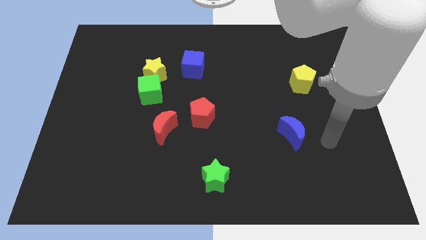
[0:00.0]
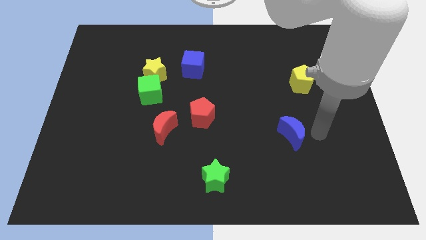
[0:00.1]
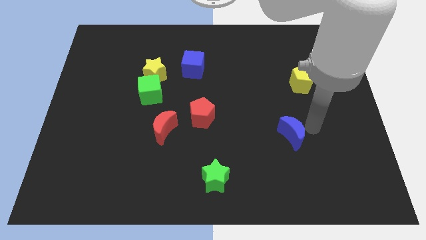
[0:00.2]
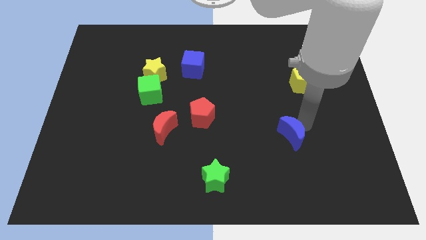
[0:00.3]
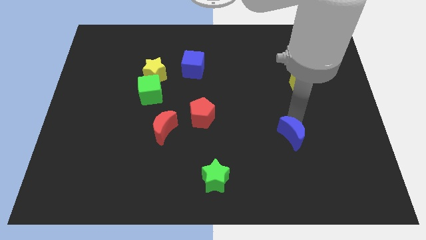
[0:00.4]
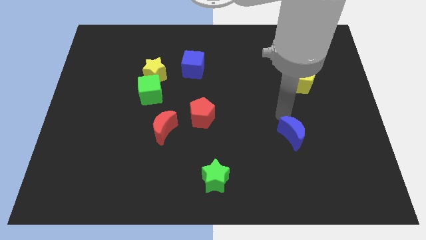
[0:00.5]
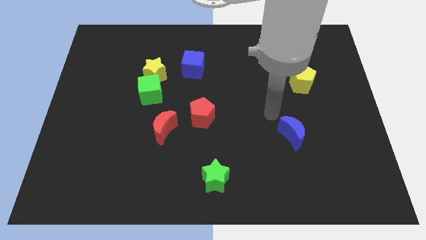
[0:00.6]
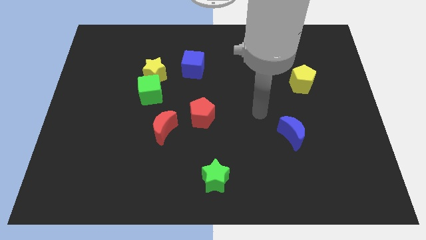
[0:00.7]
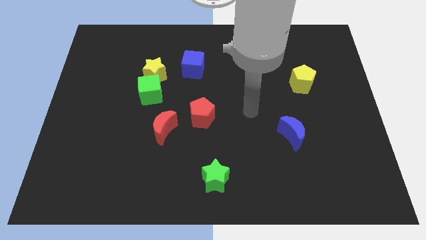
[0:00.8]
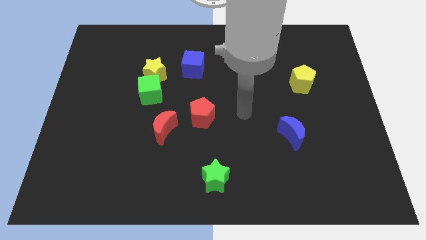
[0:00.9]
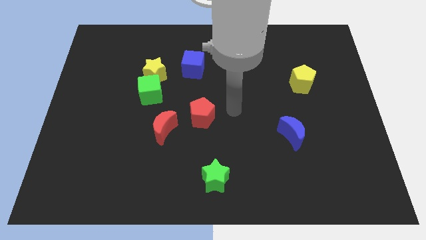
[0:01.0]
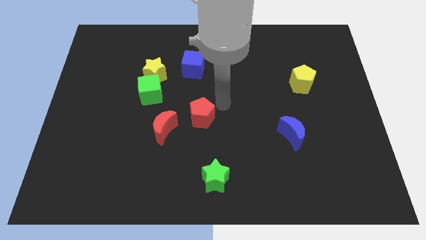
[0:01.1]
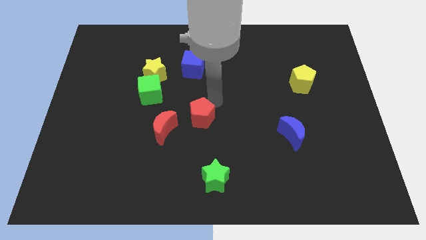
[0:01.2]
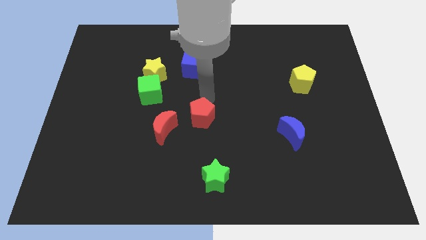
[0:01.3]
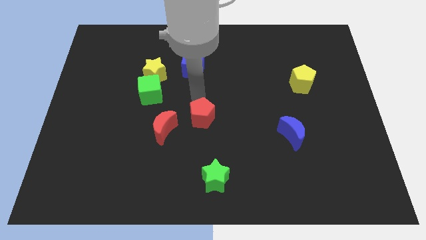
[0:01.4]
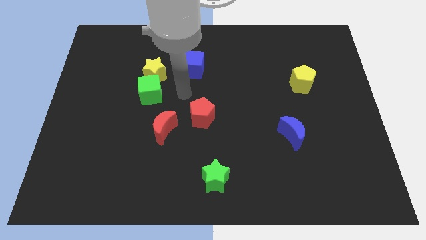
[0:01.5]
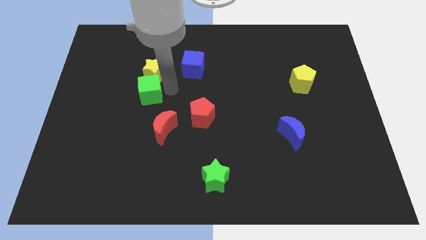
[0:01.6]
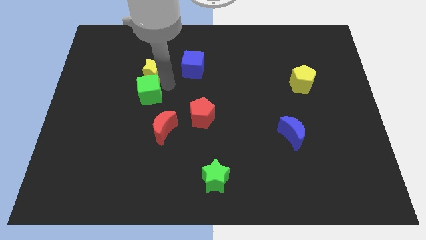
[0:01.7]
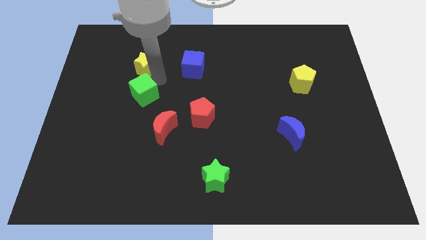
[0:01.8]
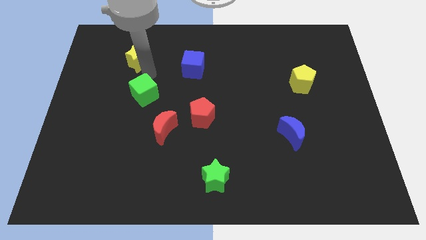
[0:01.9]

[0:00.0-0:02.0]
separate the green cube from the yellow star

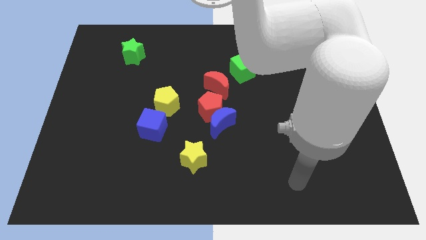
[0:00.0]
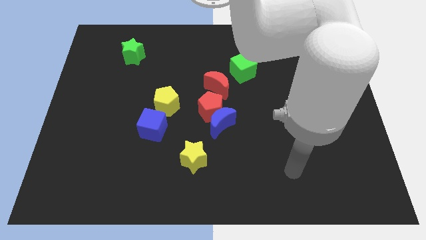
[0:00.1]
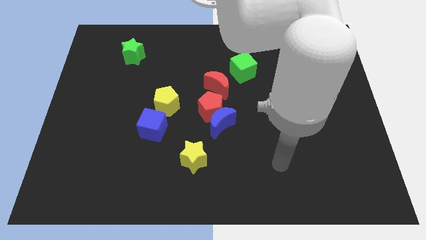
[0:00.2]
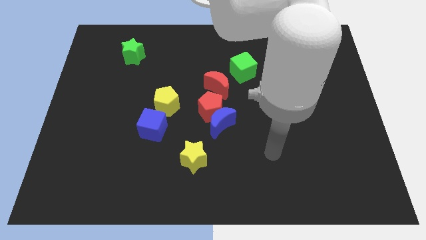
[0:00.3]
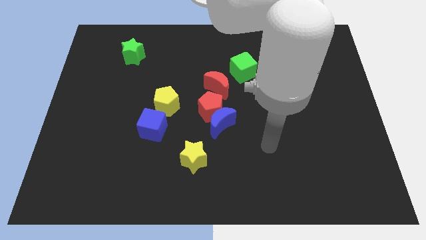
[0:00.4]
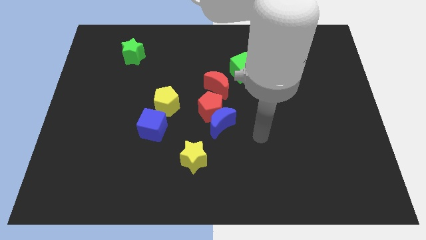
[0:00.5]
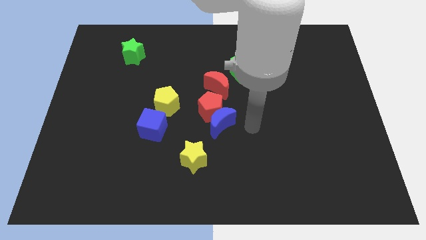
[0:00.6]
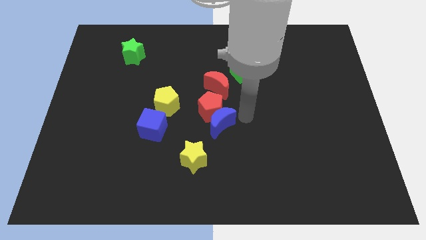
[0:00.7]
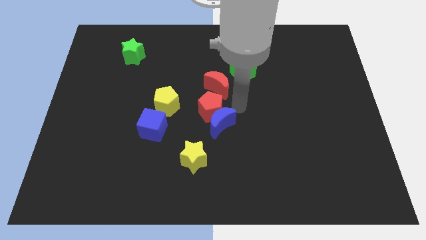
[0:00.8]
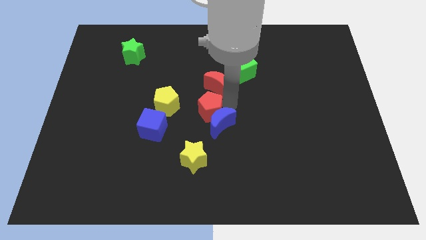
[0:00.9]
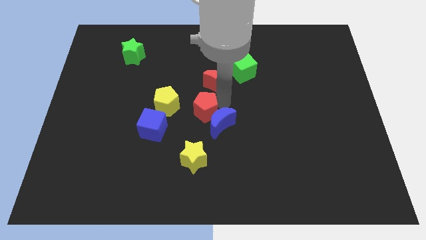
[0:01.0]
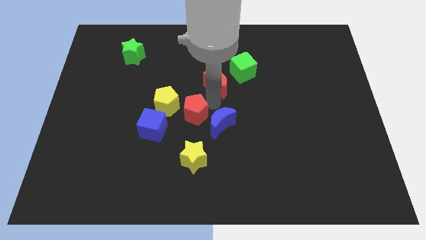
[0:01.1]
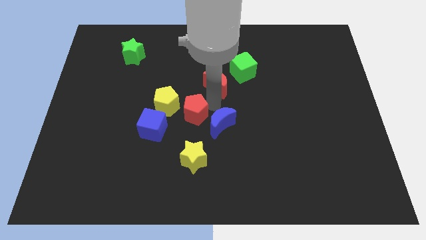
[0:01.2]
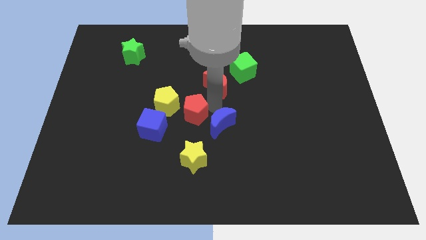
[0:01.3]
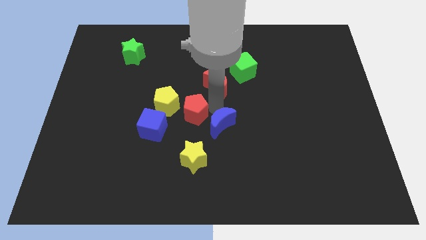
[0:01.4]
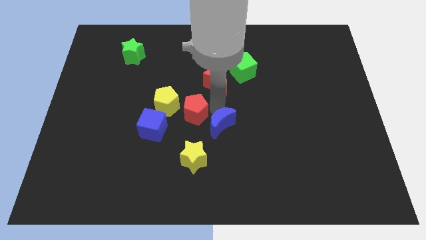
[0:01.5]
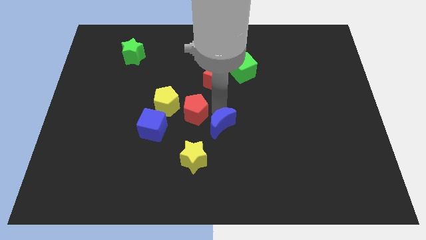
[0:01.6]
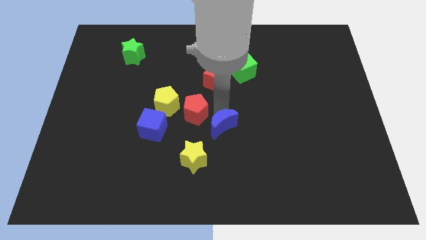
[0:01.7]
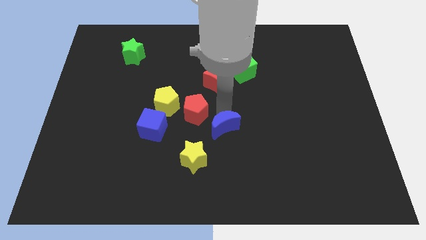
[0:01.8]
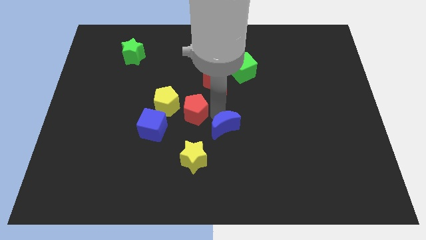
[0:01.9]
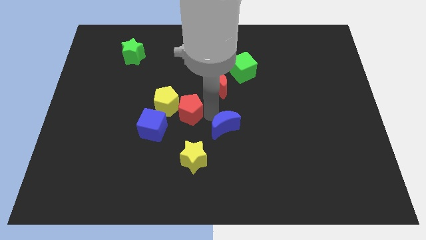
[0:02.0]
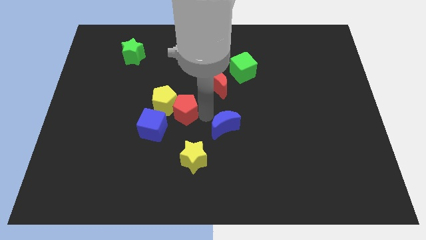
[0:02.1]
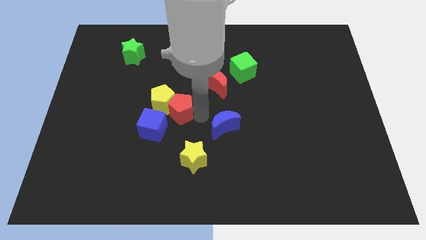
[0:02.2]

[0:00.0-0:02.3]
move the blue moon away from the red pentagon

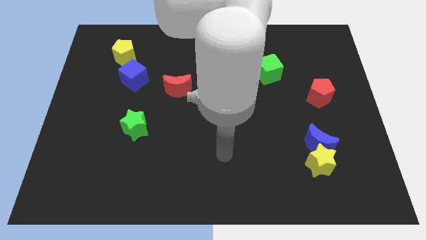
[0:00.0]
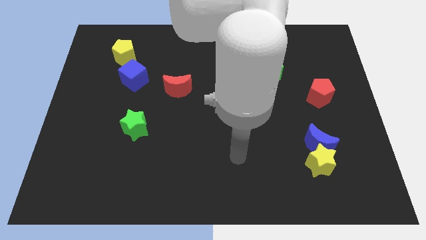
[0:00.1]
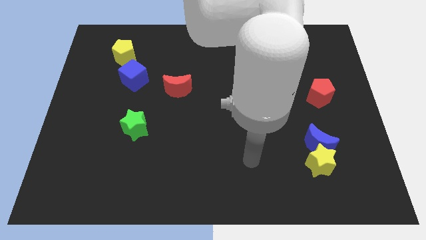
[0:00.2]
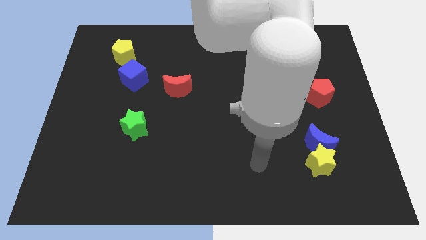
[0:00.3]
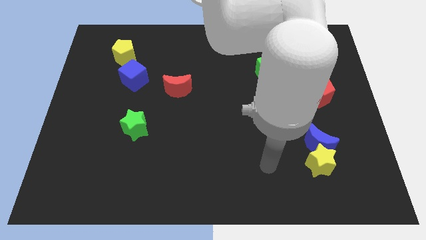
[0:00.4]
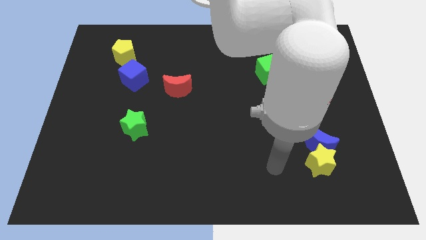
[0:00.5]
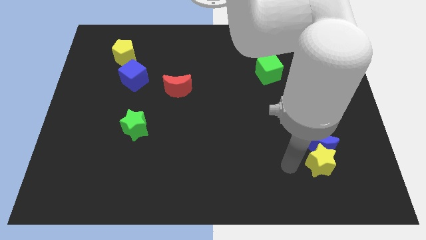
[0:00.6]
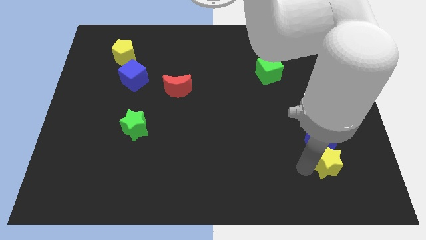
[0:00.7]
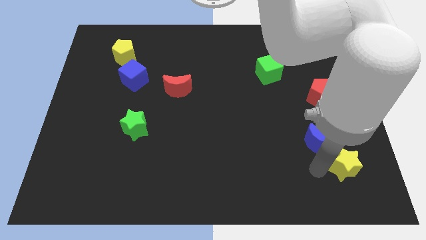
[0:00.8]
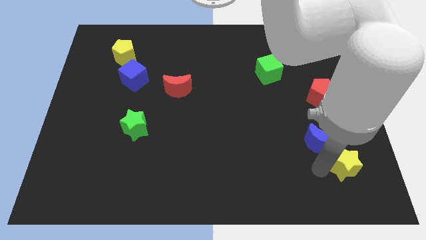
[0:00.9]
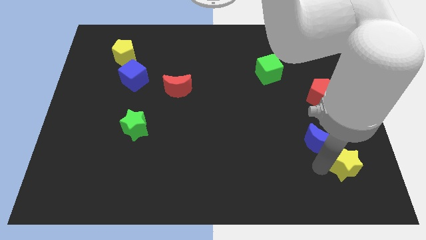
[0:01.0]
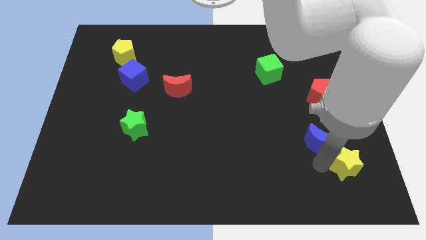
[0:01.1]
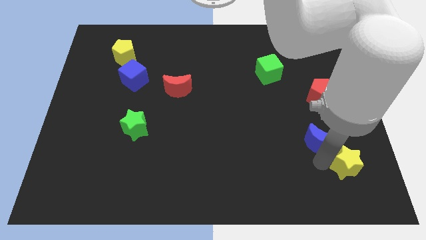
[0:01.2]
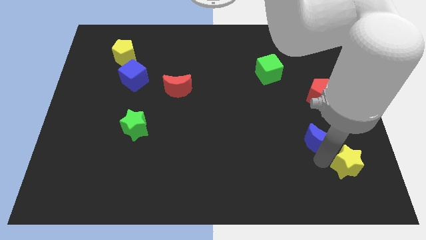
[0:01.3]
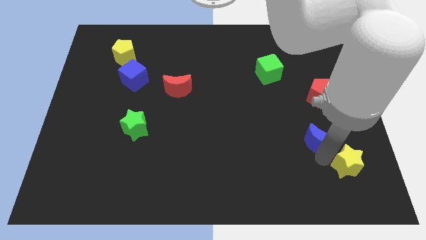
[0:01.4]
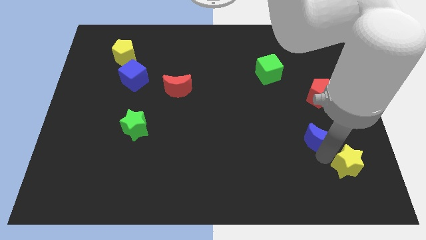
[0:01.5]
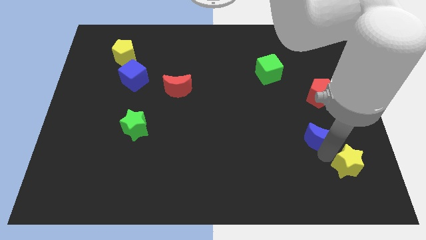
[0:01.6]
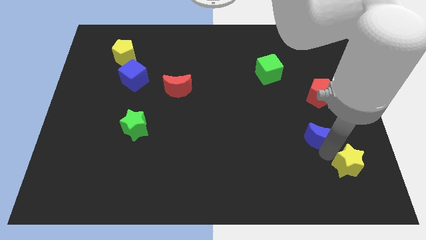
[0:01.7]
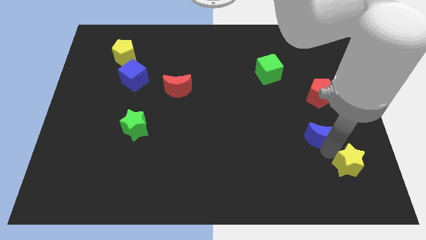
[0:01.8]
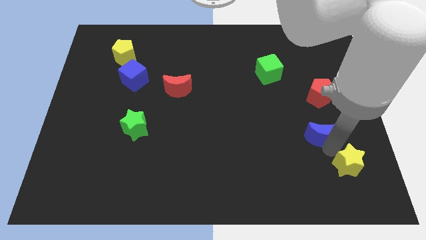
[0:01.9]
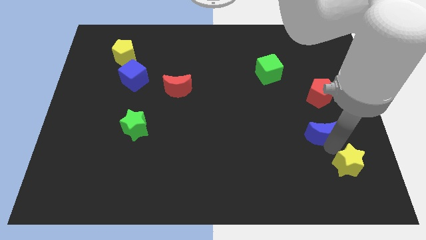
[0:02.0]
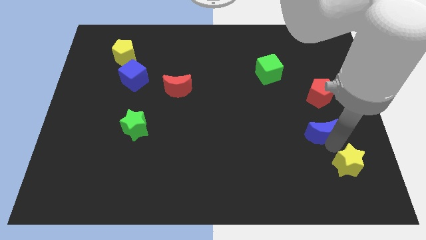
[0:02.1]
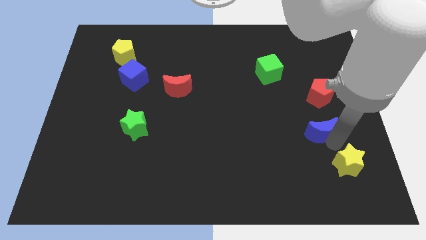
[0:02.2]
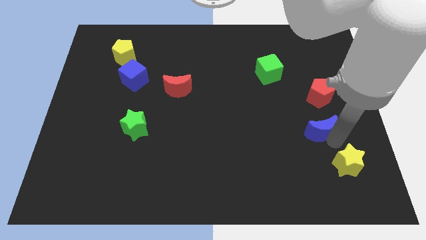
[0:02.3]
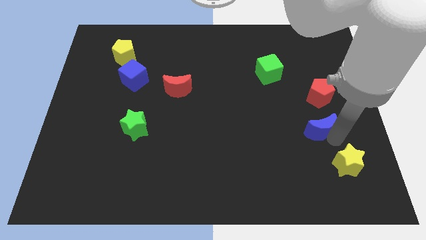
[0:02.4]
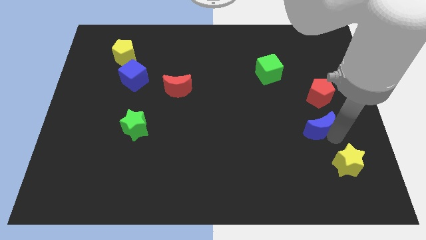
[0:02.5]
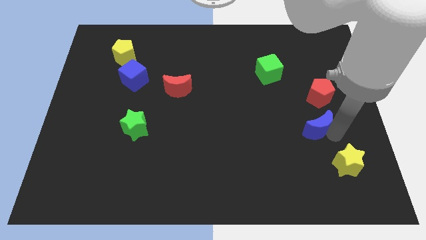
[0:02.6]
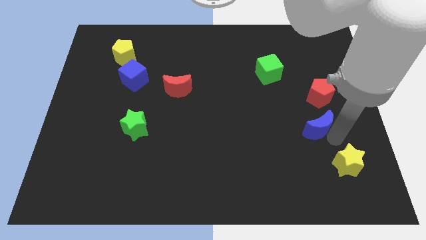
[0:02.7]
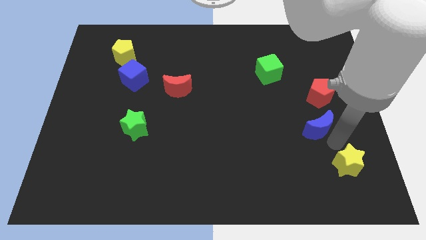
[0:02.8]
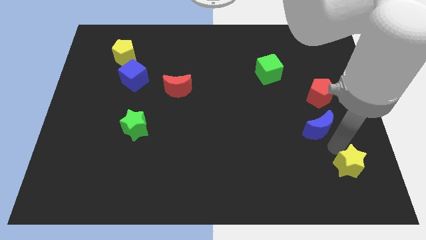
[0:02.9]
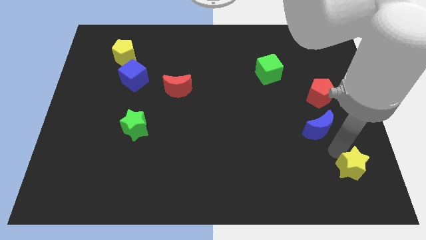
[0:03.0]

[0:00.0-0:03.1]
pull the blue moon apart from the yellow star

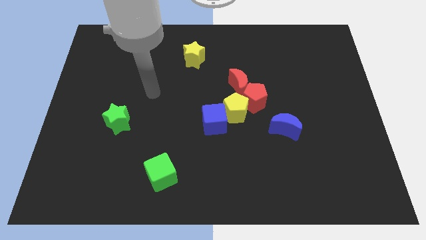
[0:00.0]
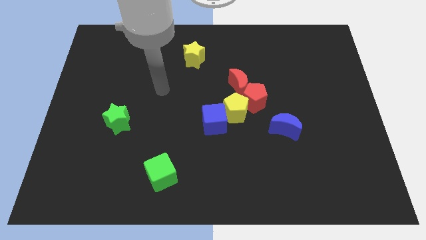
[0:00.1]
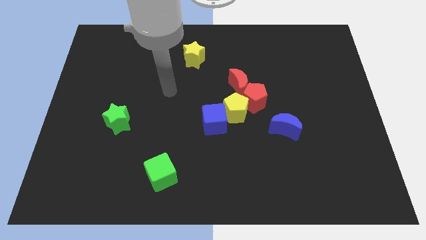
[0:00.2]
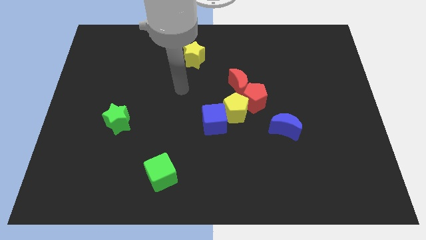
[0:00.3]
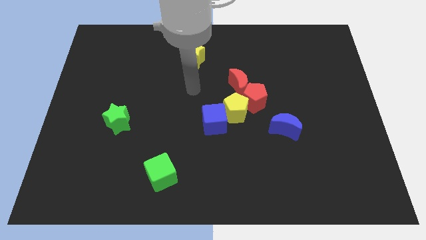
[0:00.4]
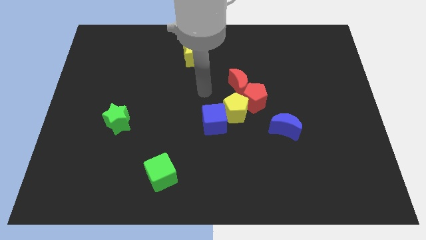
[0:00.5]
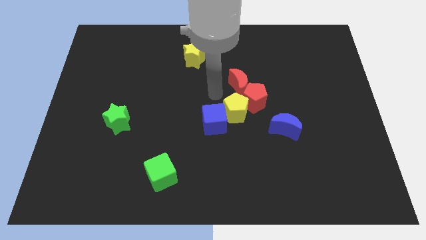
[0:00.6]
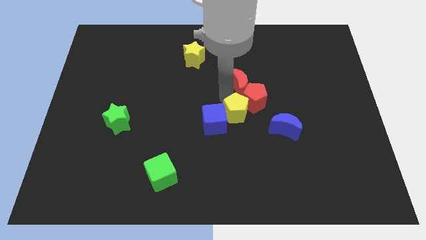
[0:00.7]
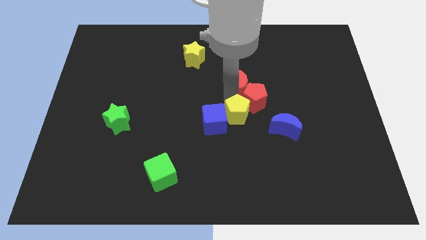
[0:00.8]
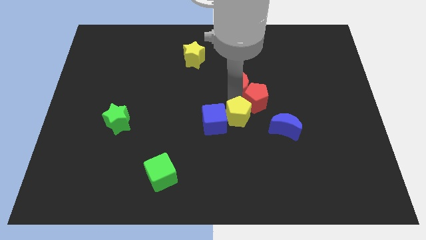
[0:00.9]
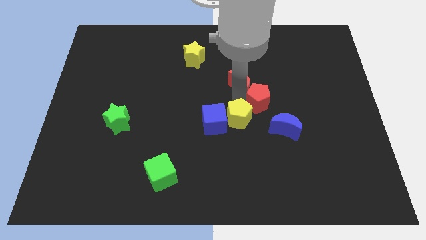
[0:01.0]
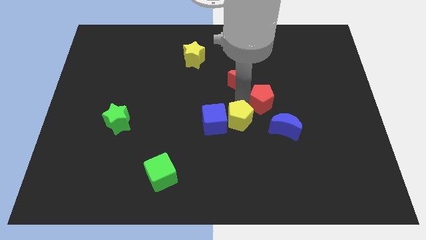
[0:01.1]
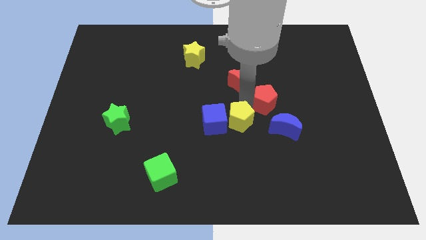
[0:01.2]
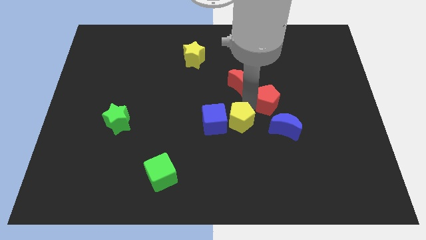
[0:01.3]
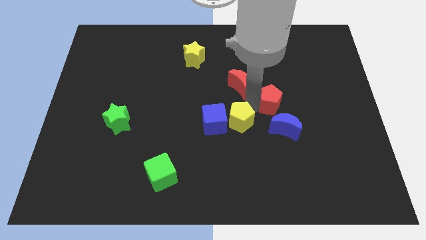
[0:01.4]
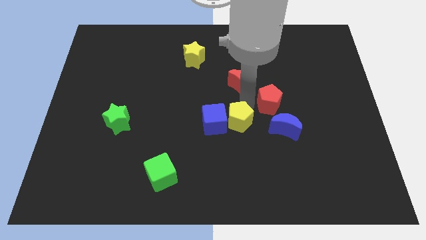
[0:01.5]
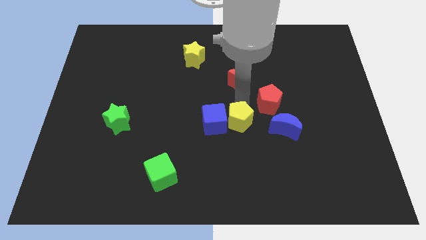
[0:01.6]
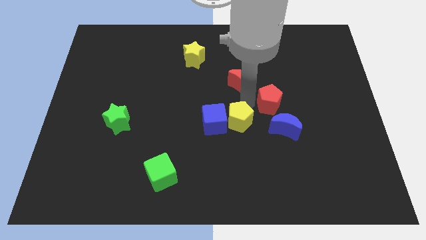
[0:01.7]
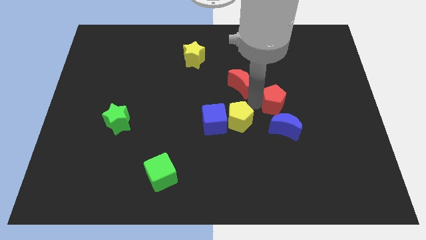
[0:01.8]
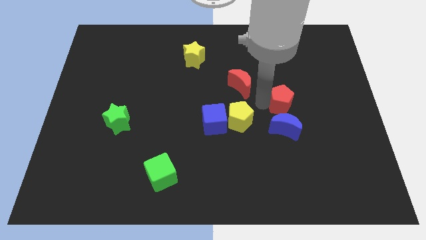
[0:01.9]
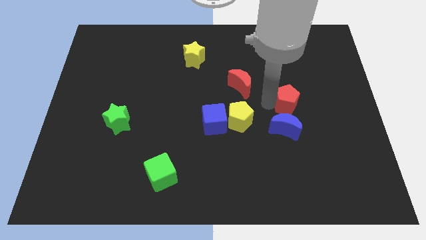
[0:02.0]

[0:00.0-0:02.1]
pull the red pentagon apart from the red moon and yellow pentagon
